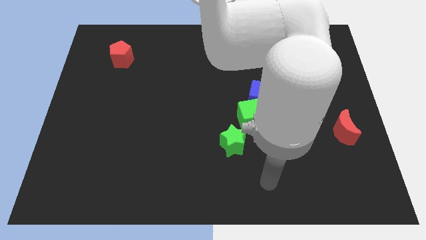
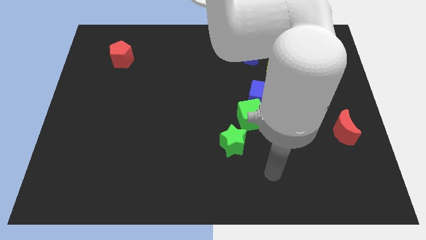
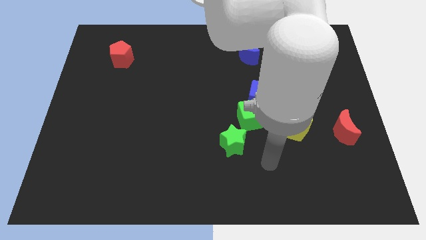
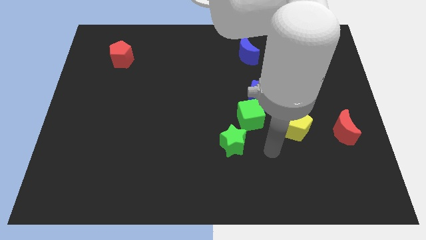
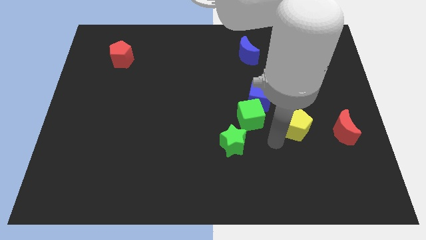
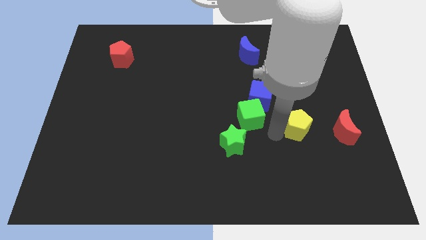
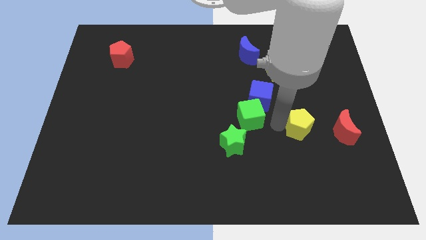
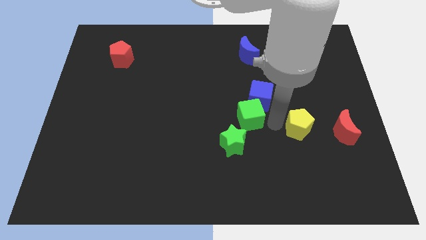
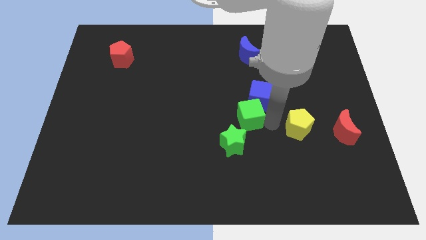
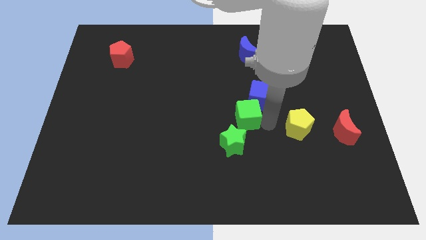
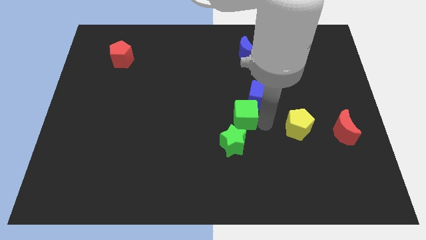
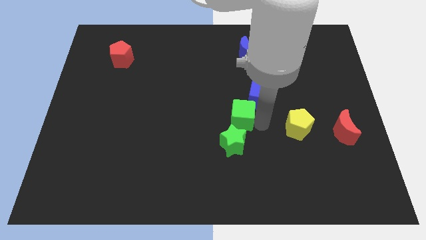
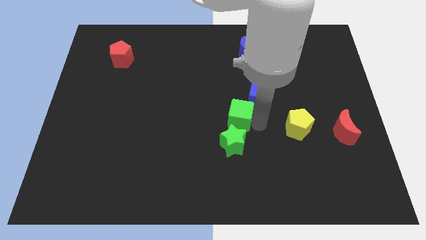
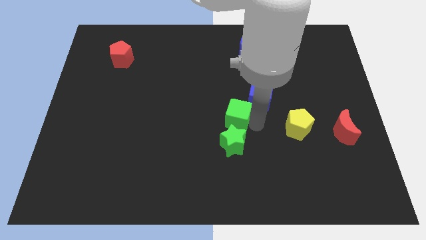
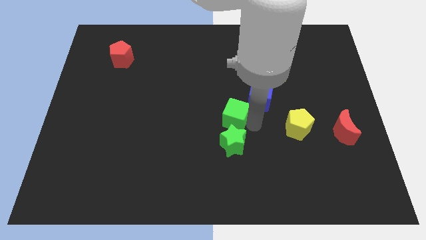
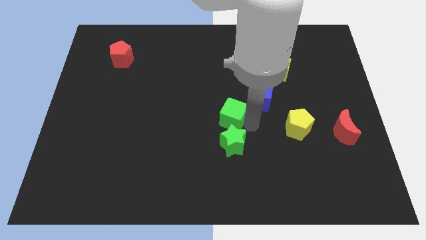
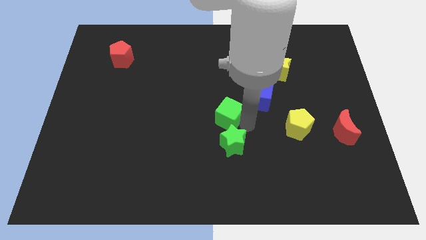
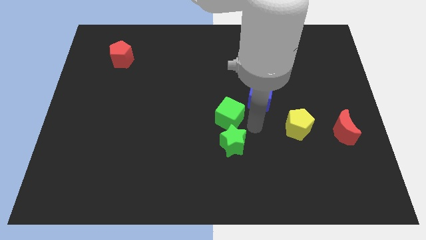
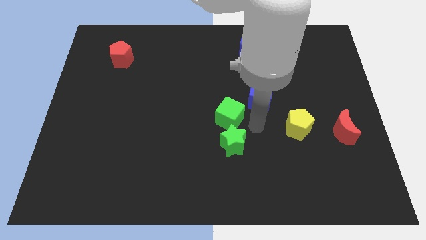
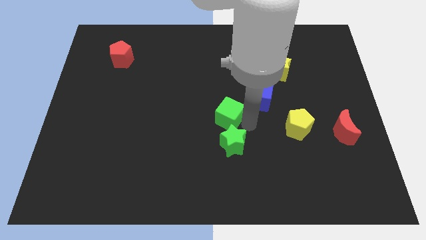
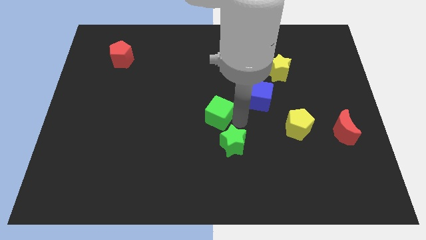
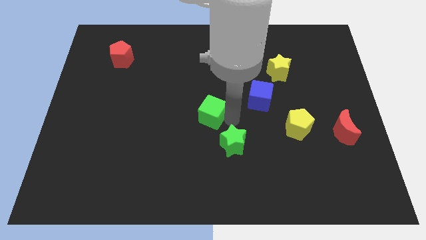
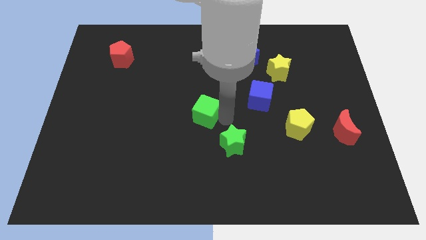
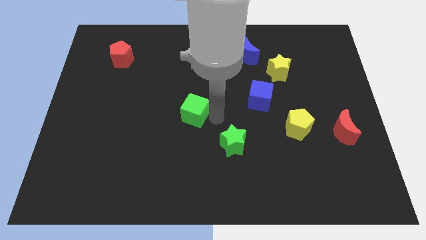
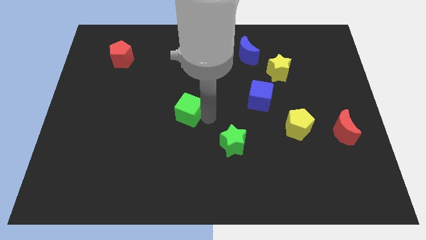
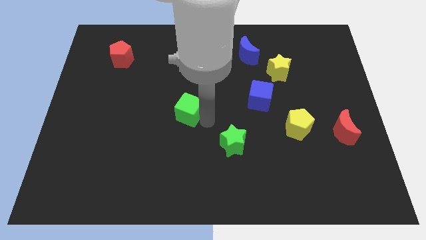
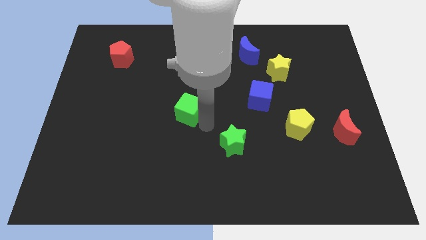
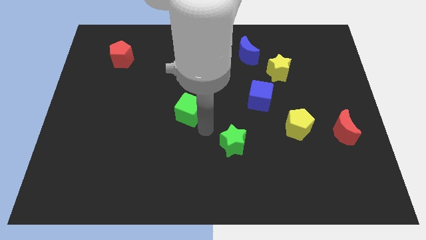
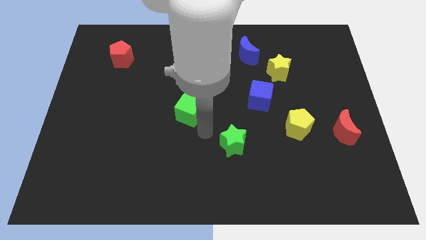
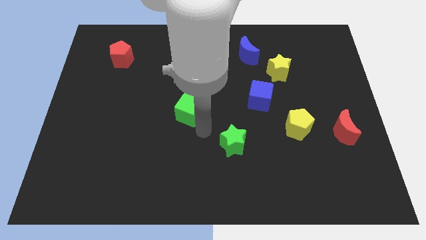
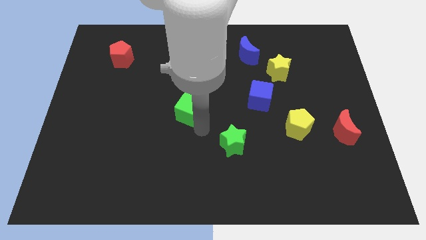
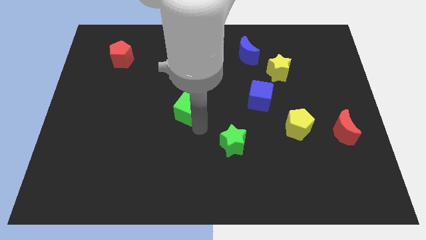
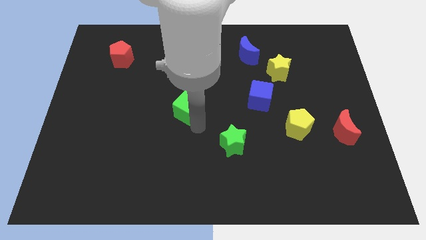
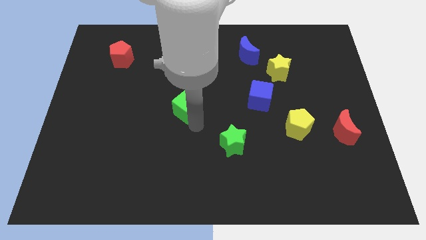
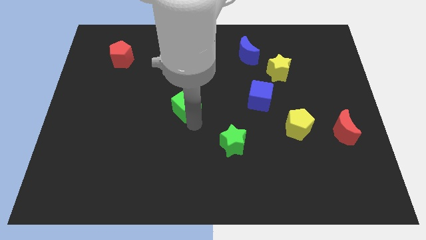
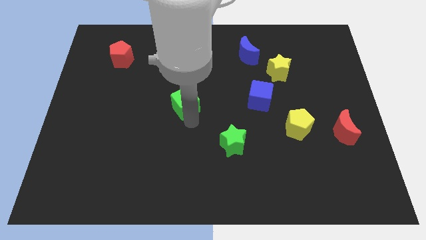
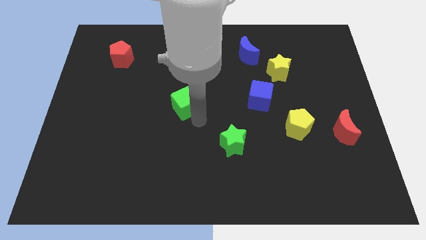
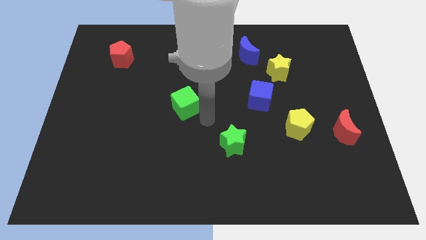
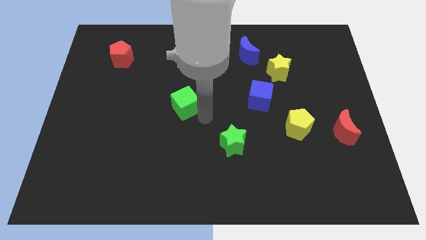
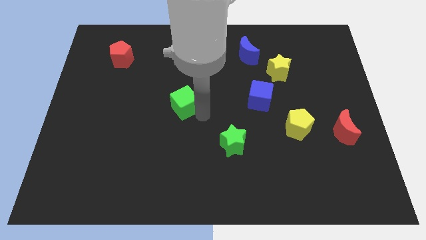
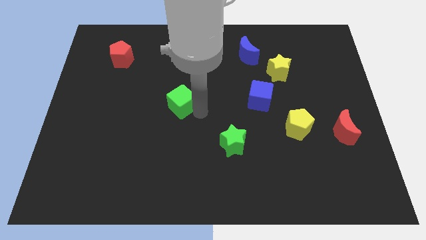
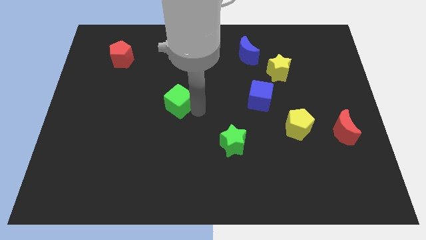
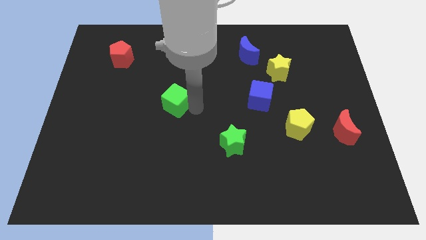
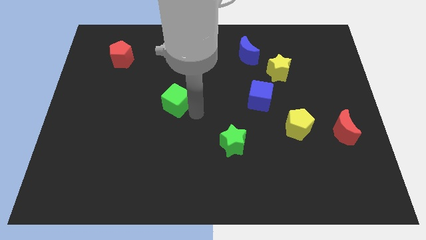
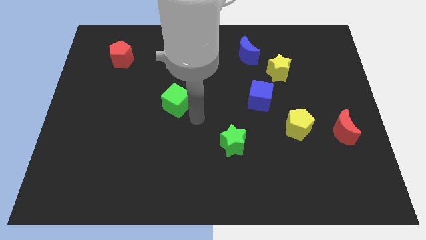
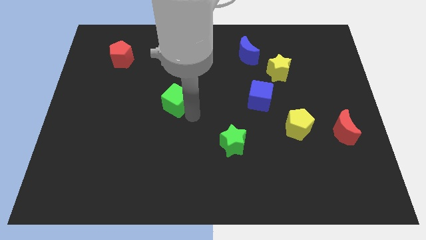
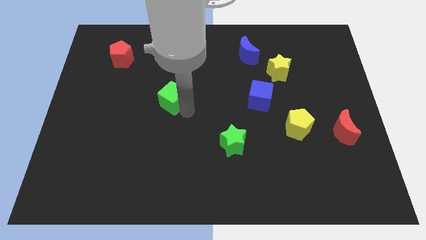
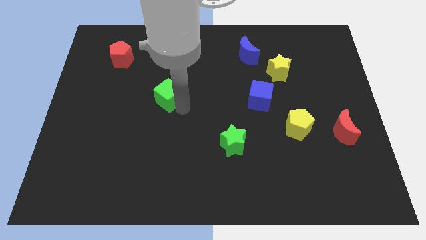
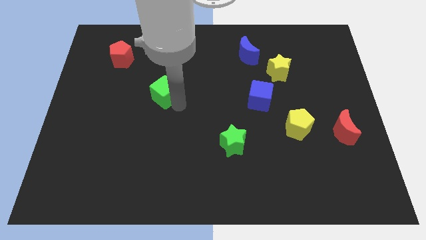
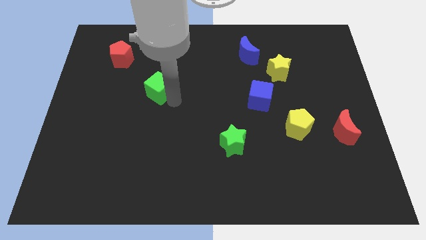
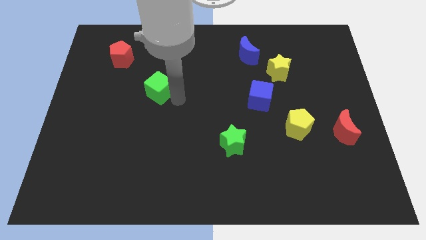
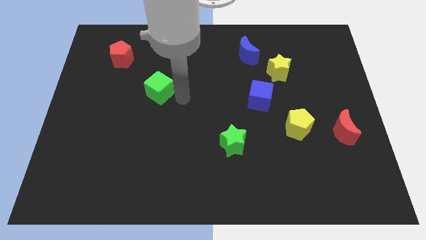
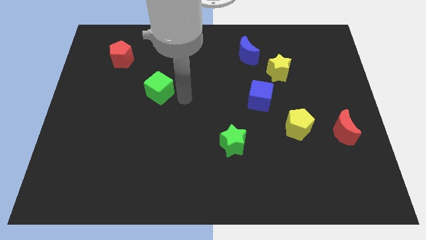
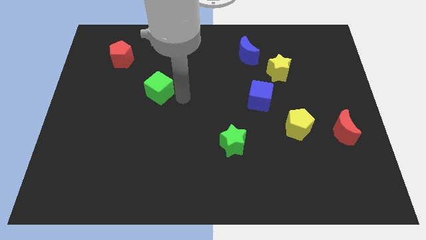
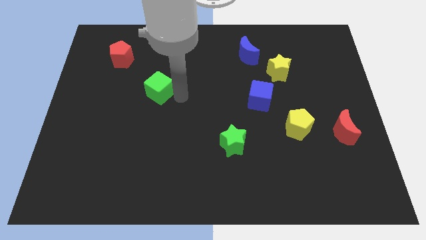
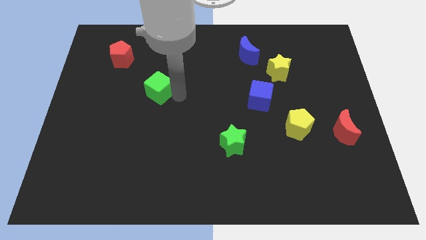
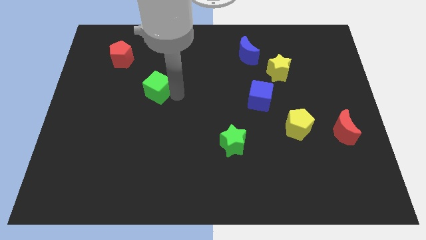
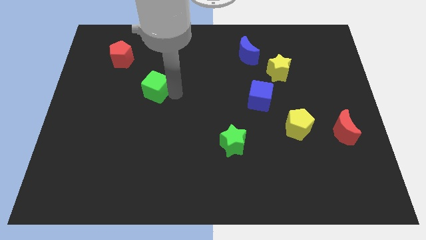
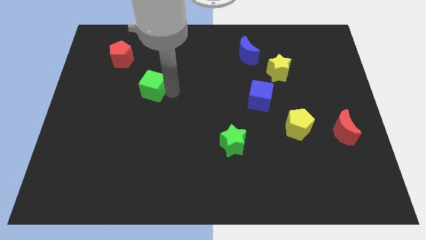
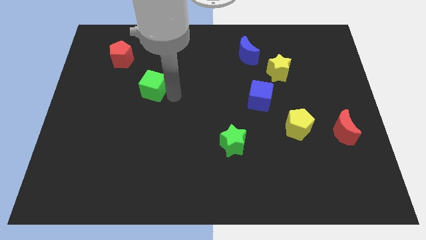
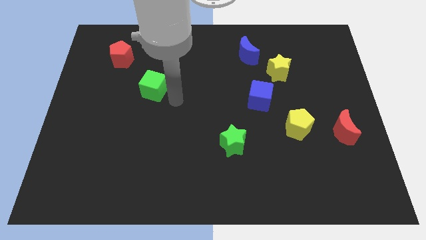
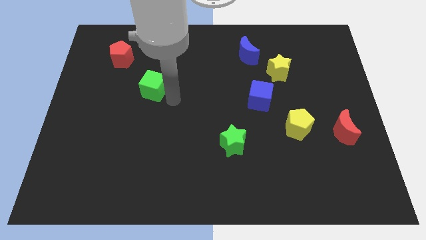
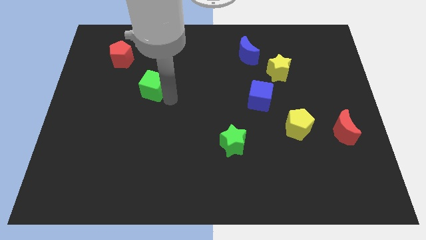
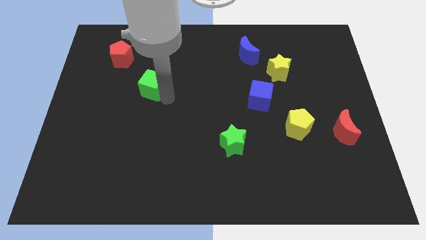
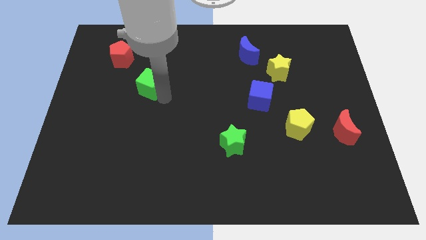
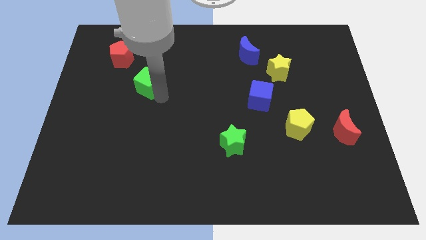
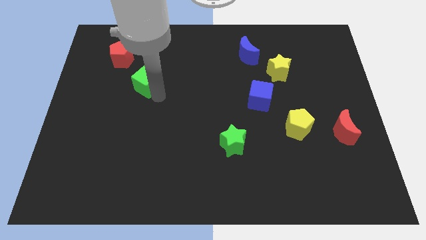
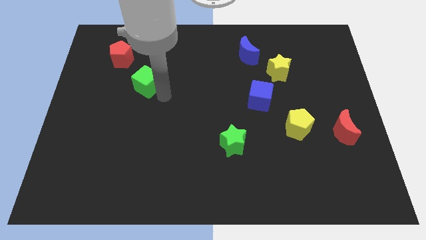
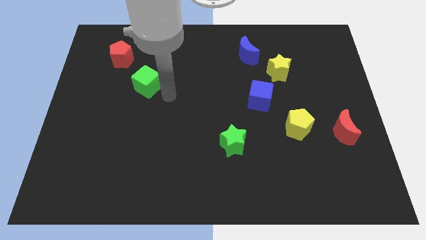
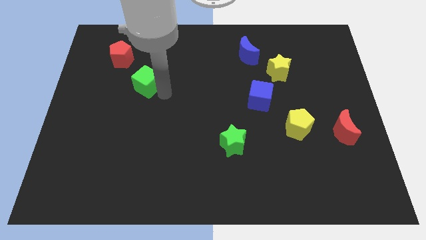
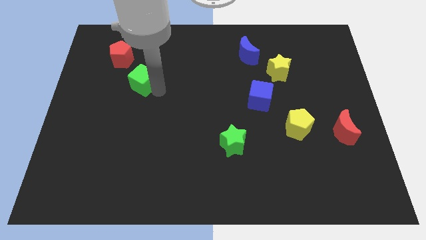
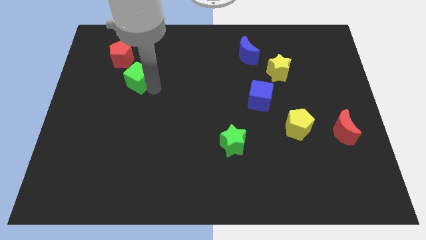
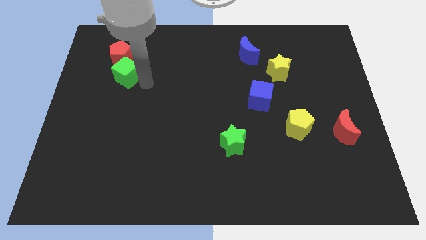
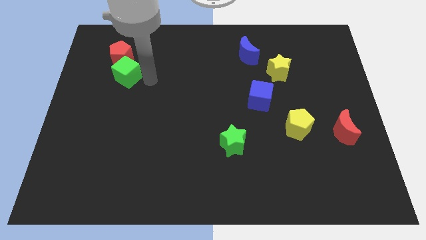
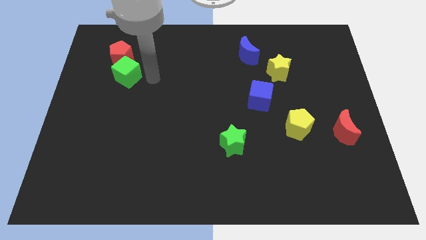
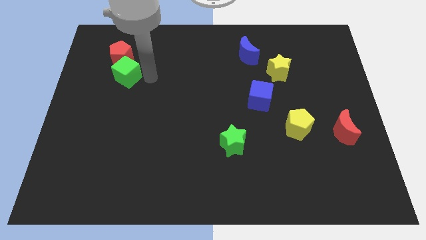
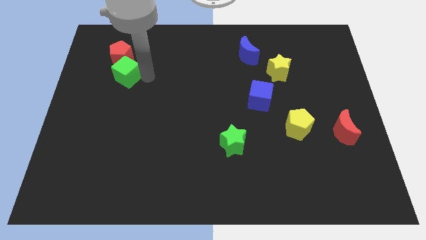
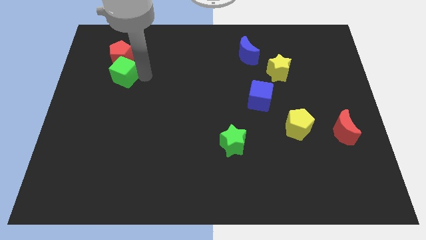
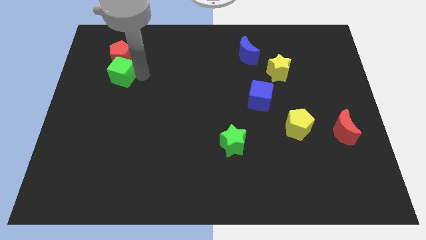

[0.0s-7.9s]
push the green cube diagonally down and to the left of the red pentagon
